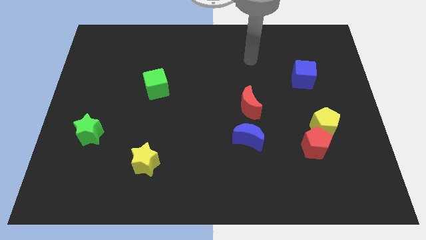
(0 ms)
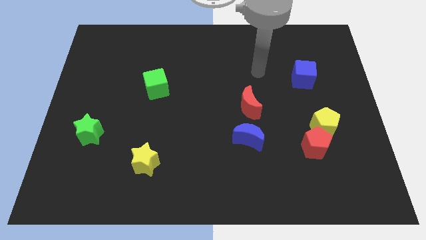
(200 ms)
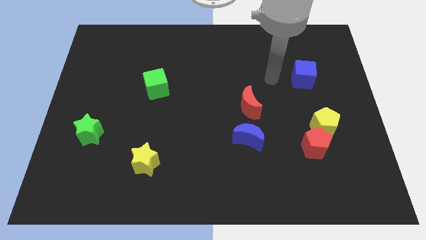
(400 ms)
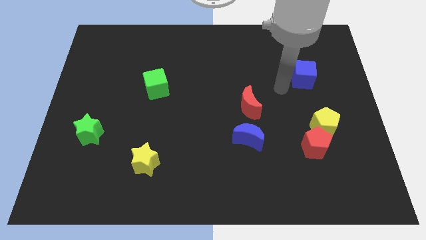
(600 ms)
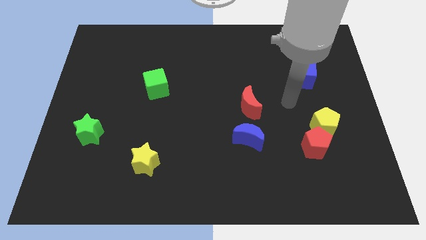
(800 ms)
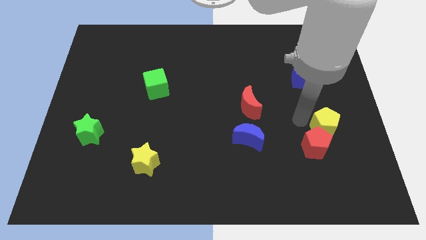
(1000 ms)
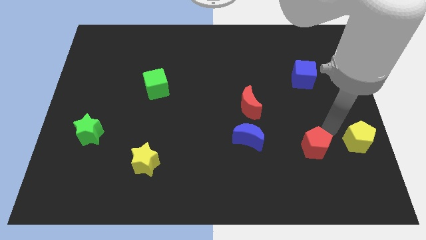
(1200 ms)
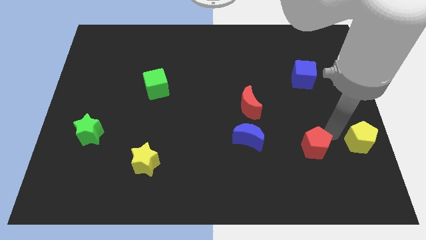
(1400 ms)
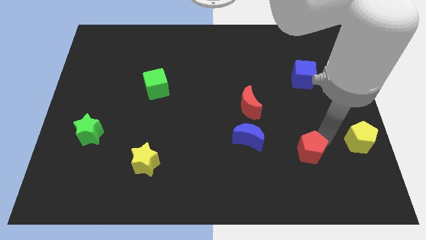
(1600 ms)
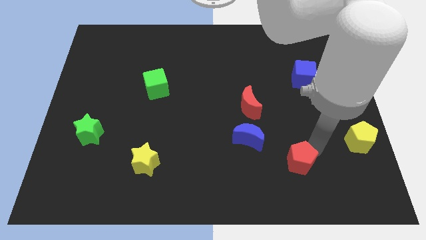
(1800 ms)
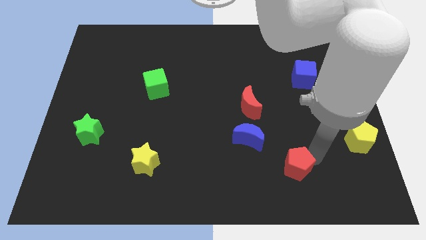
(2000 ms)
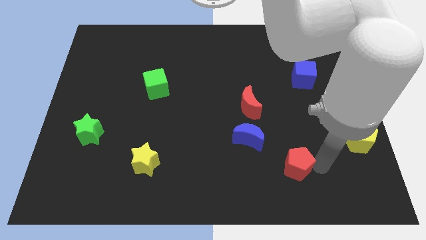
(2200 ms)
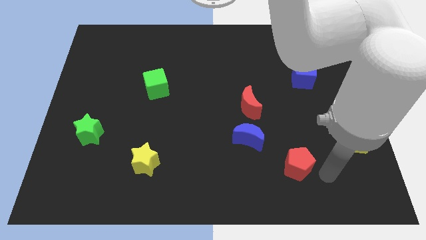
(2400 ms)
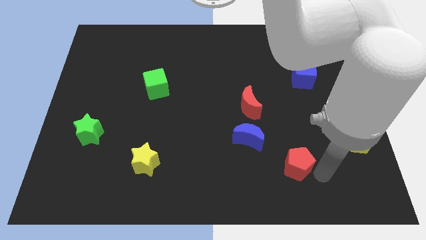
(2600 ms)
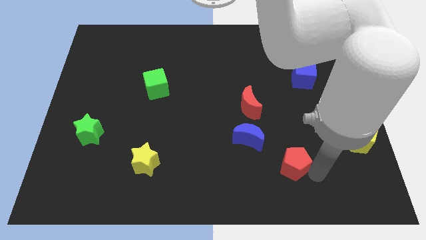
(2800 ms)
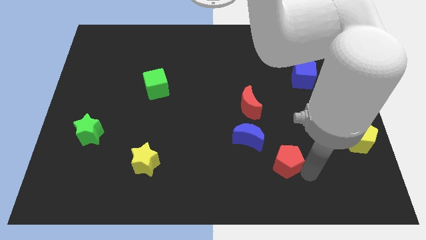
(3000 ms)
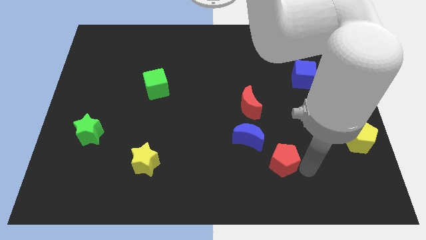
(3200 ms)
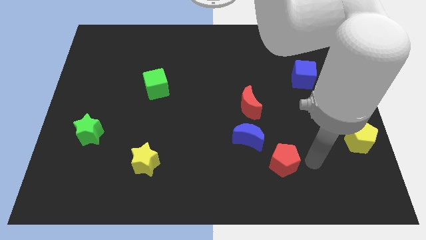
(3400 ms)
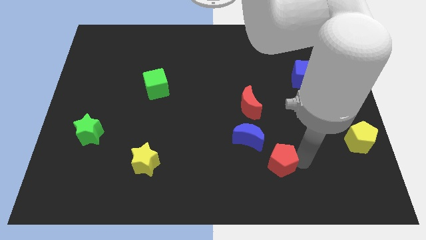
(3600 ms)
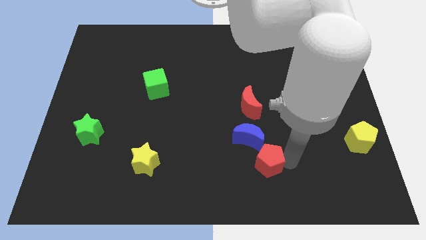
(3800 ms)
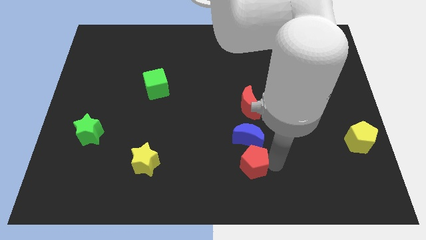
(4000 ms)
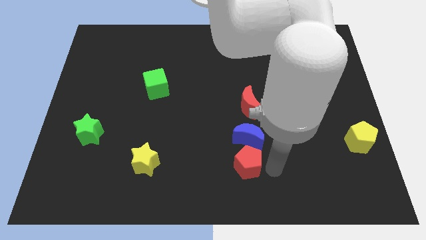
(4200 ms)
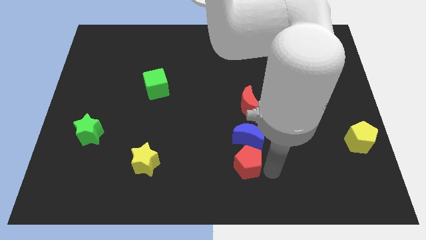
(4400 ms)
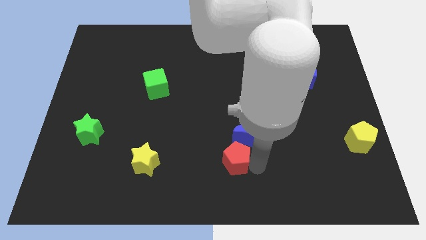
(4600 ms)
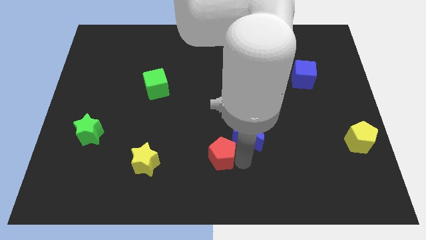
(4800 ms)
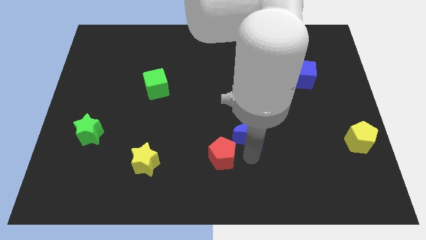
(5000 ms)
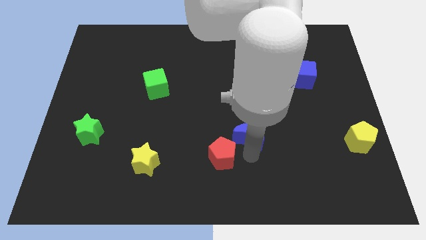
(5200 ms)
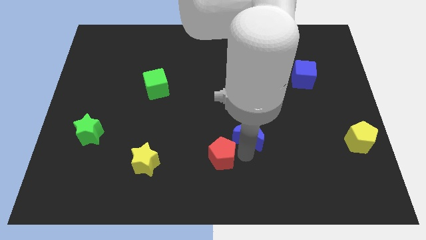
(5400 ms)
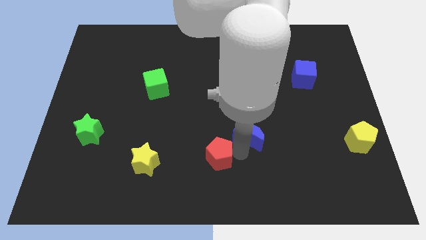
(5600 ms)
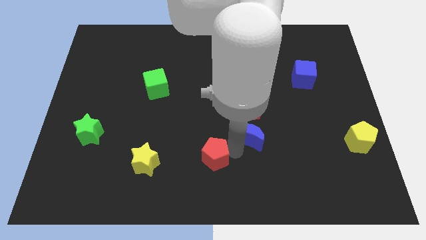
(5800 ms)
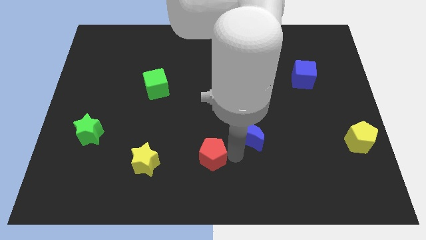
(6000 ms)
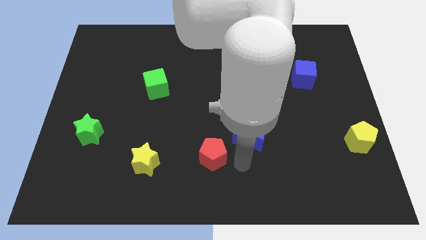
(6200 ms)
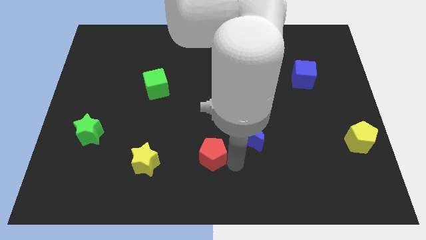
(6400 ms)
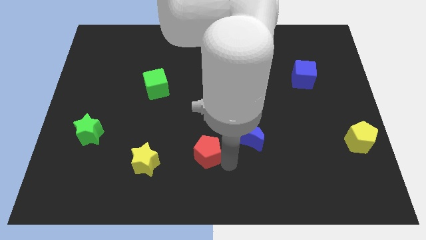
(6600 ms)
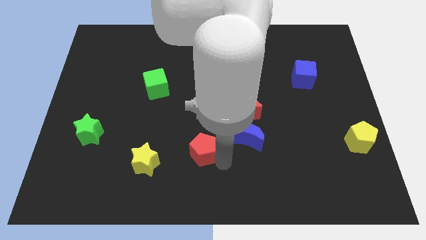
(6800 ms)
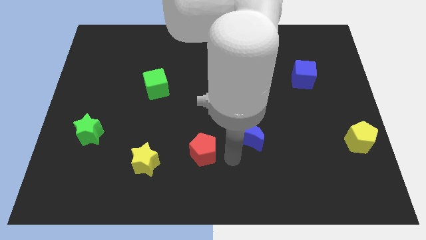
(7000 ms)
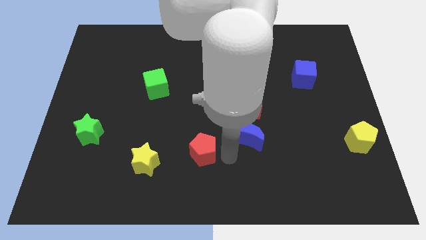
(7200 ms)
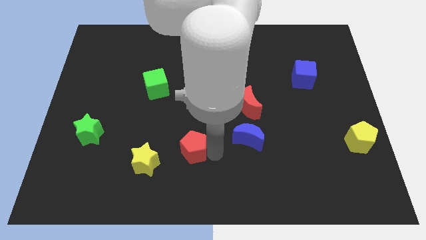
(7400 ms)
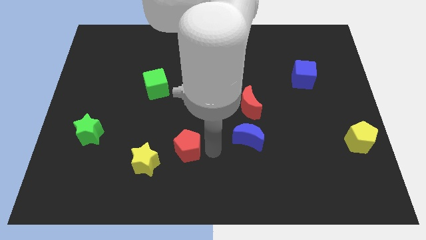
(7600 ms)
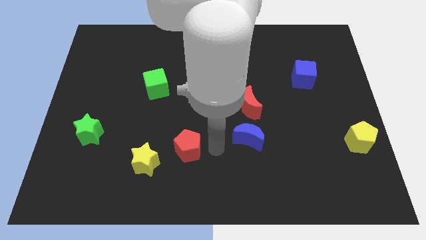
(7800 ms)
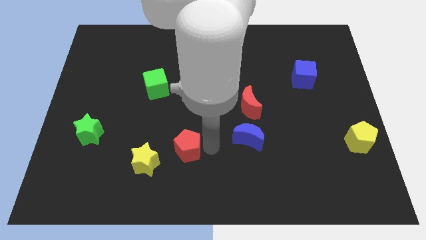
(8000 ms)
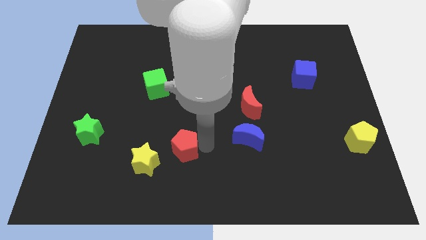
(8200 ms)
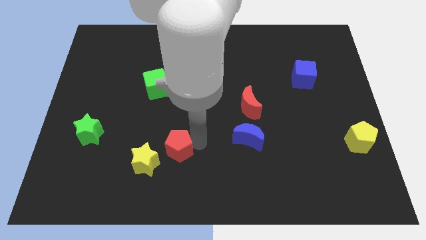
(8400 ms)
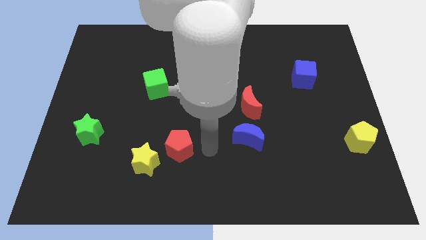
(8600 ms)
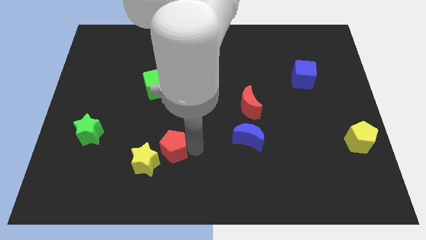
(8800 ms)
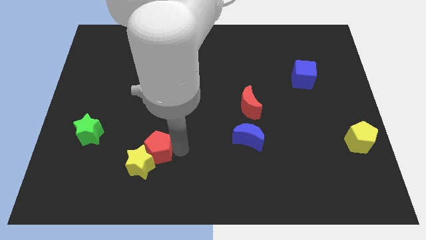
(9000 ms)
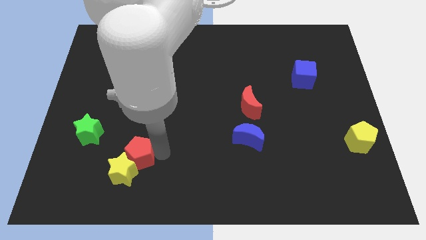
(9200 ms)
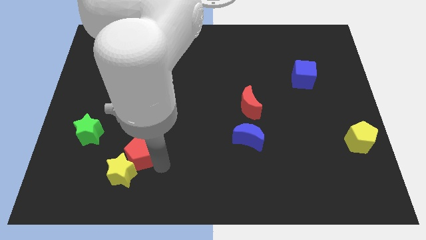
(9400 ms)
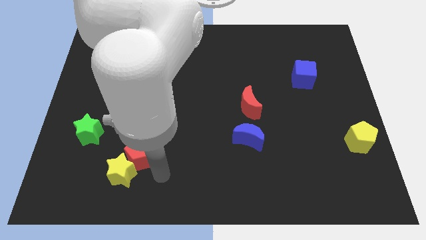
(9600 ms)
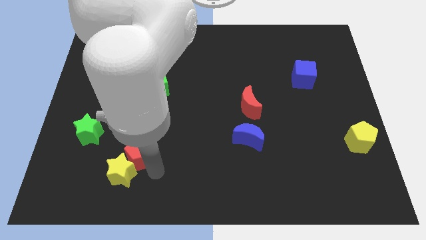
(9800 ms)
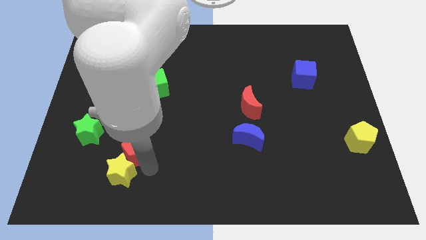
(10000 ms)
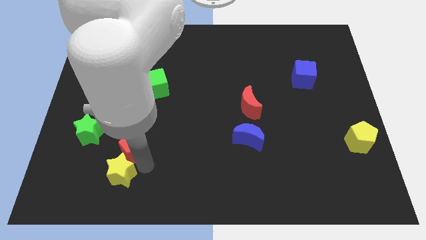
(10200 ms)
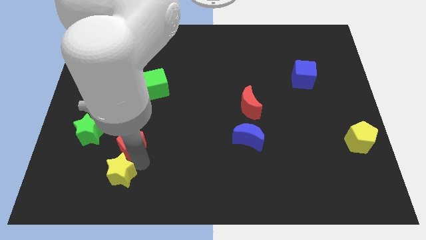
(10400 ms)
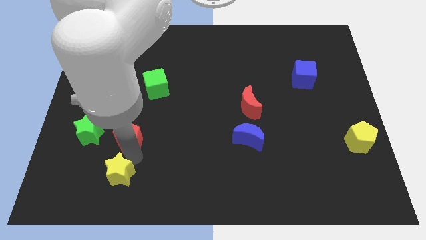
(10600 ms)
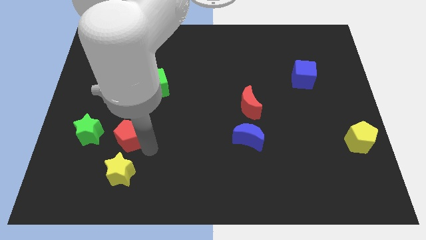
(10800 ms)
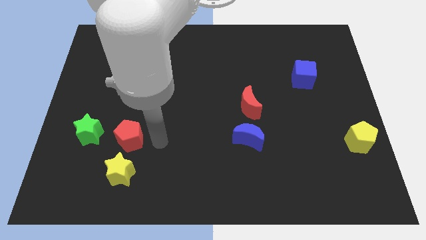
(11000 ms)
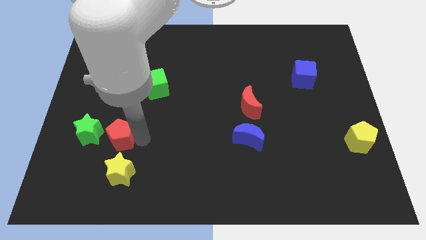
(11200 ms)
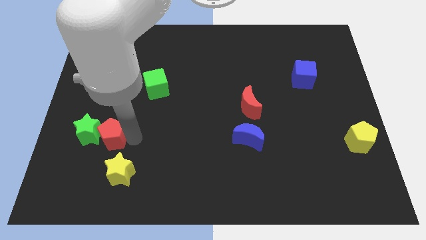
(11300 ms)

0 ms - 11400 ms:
move the red pentagon next to the green star

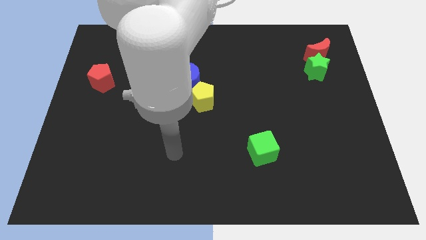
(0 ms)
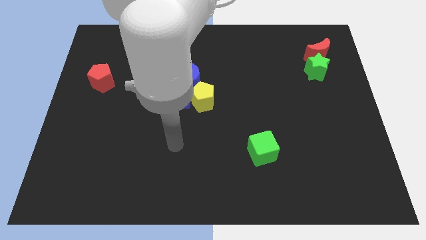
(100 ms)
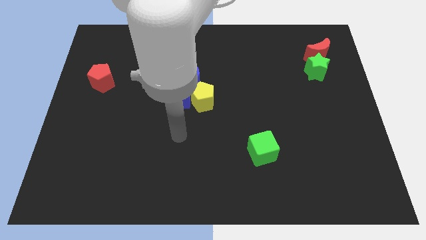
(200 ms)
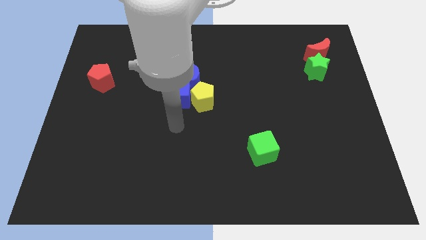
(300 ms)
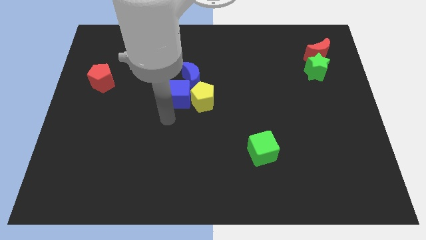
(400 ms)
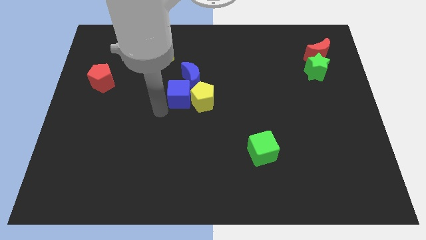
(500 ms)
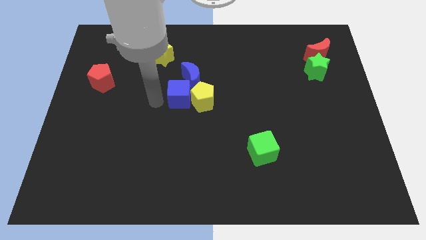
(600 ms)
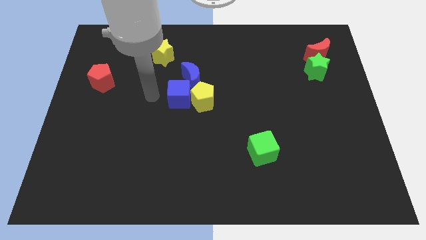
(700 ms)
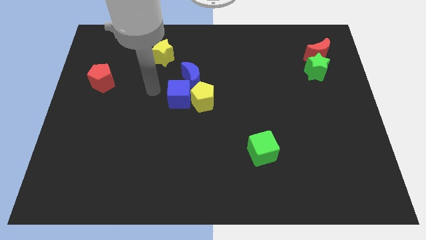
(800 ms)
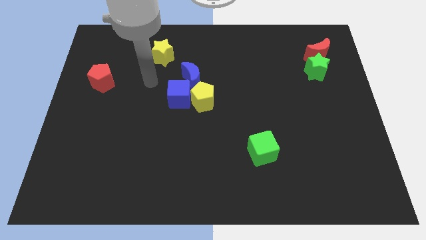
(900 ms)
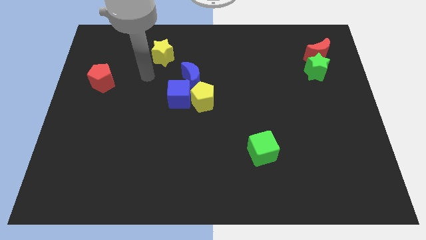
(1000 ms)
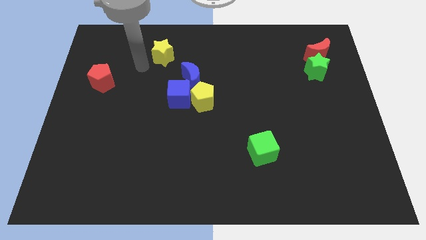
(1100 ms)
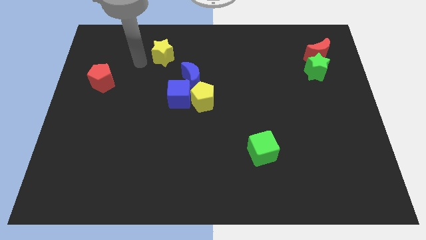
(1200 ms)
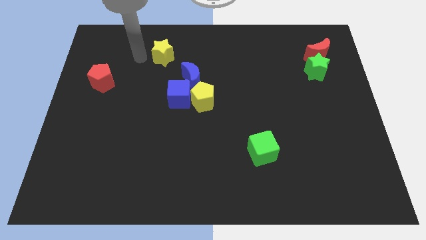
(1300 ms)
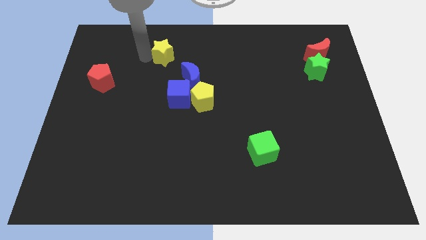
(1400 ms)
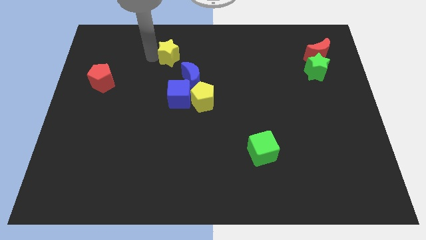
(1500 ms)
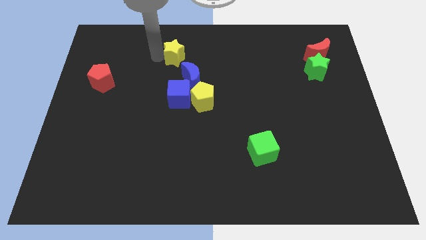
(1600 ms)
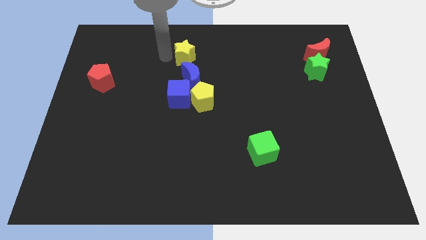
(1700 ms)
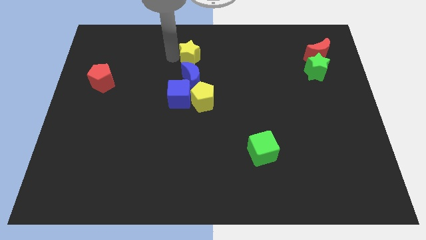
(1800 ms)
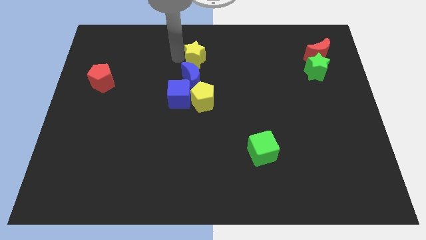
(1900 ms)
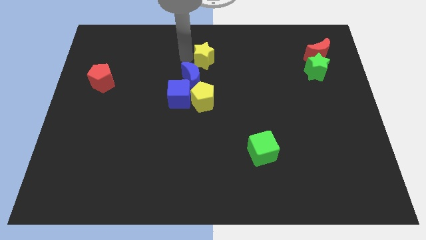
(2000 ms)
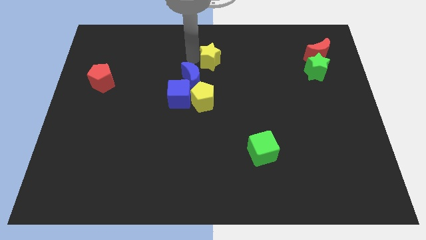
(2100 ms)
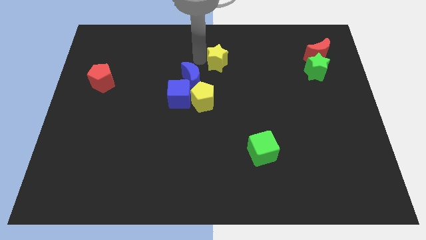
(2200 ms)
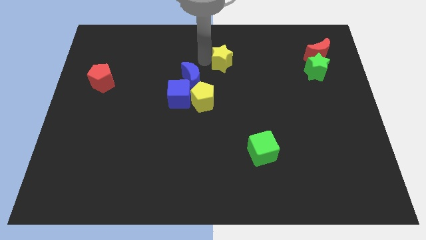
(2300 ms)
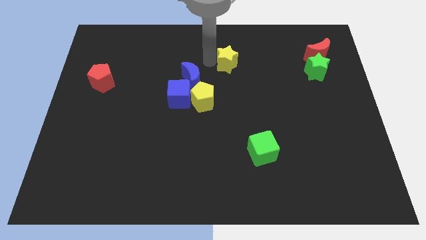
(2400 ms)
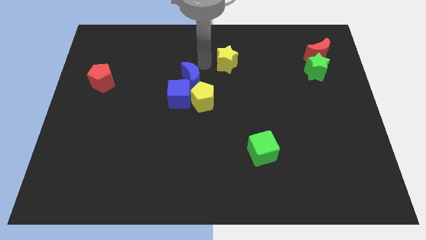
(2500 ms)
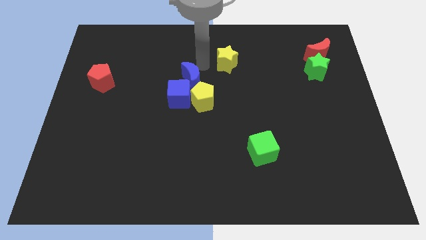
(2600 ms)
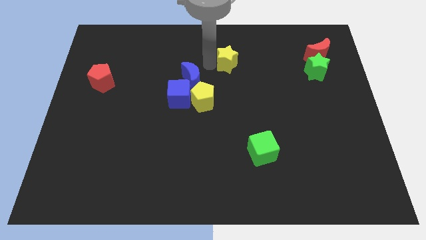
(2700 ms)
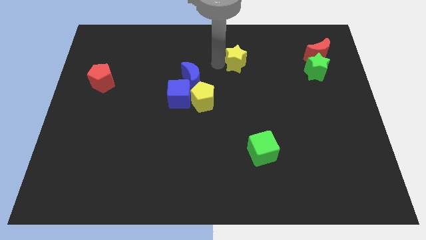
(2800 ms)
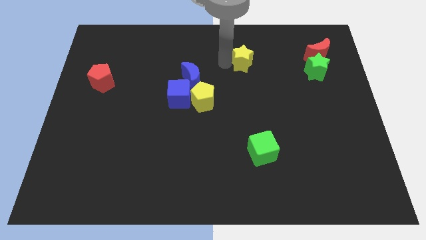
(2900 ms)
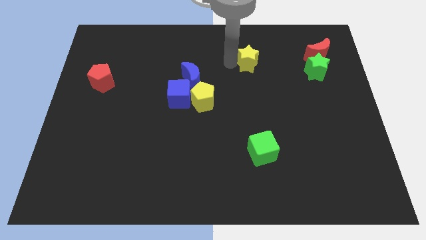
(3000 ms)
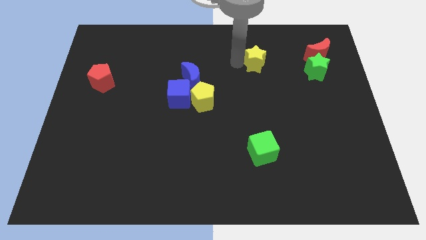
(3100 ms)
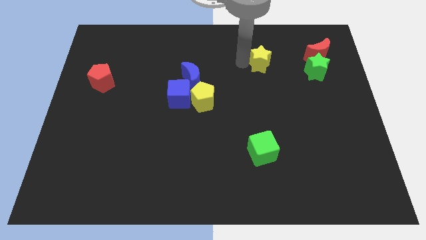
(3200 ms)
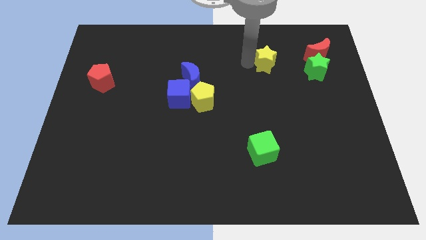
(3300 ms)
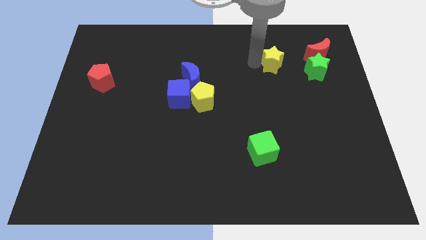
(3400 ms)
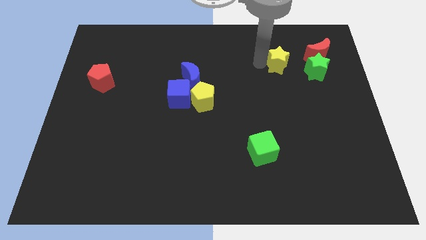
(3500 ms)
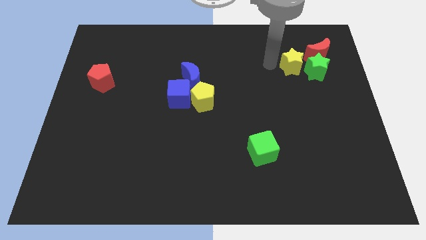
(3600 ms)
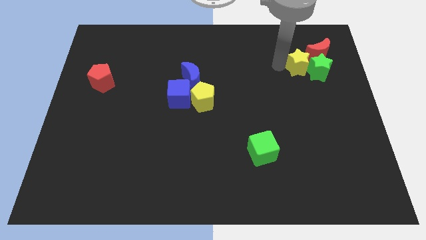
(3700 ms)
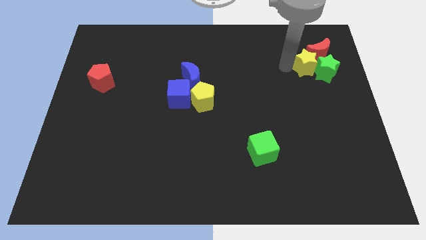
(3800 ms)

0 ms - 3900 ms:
slide the yellow star towards the red moon
